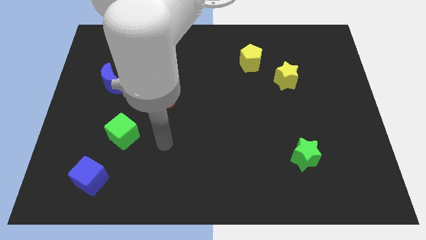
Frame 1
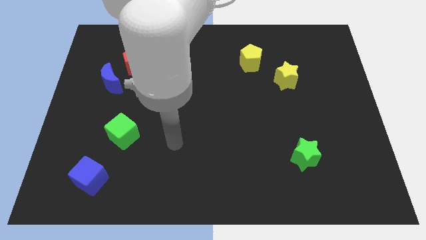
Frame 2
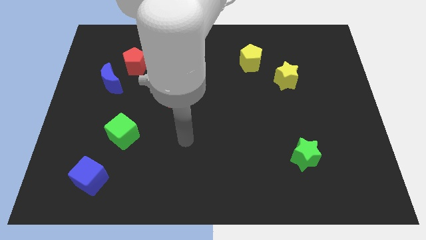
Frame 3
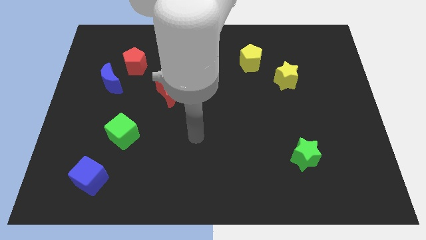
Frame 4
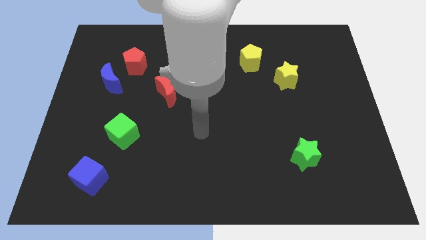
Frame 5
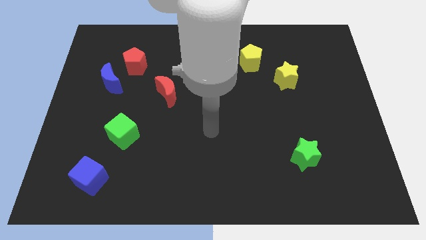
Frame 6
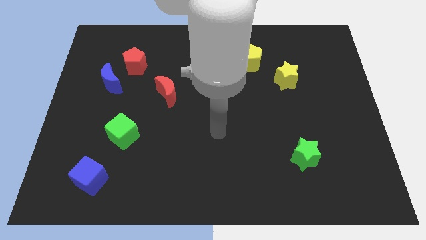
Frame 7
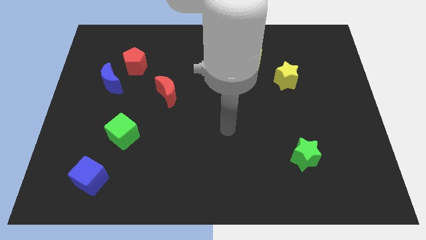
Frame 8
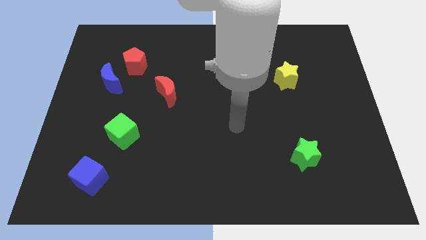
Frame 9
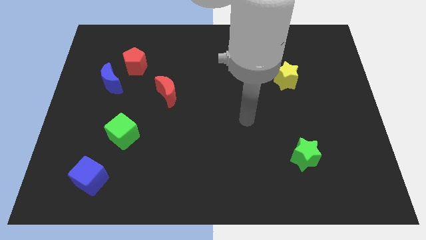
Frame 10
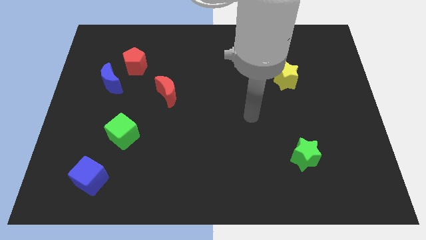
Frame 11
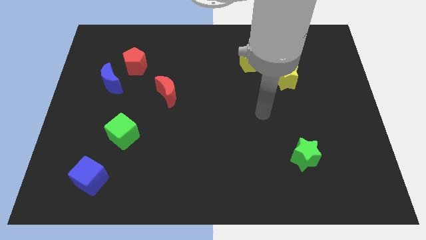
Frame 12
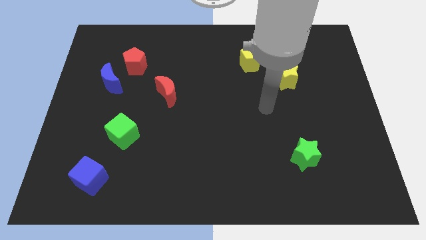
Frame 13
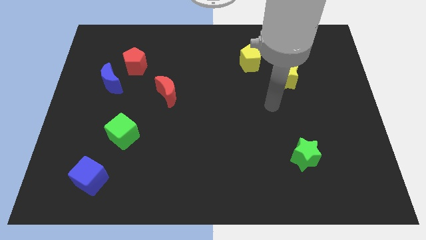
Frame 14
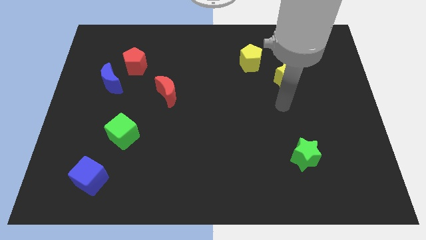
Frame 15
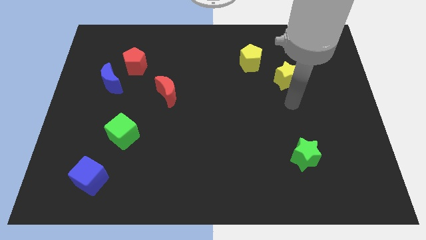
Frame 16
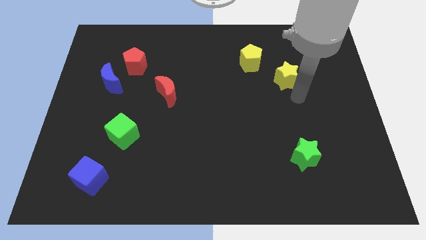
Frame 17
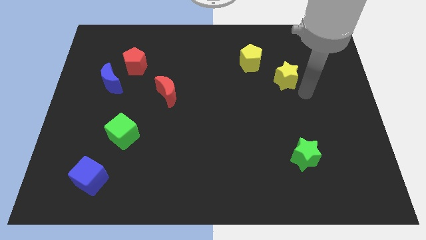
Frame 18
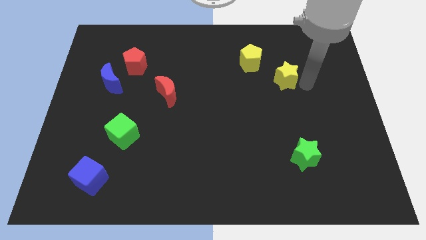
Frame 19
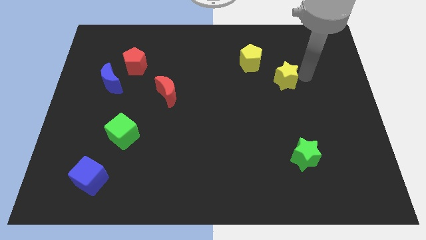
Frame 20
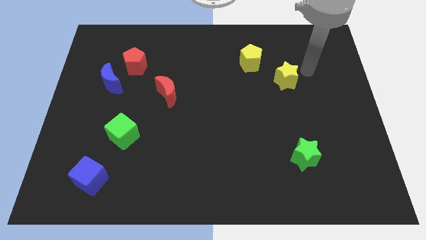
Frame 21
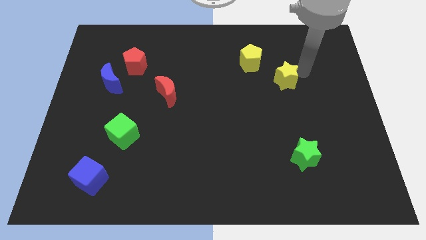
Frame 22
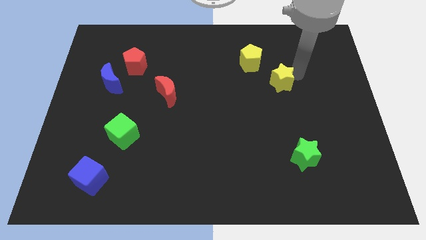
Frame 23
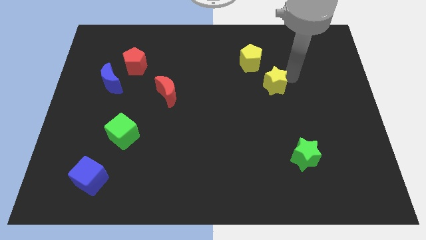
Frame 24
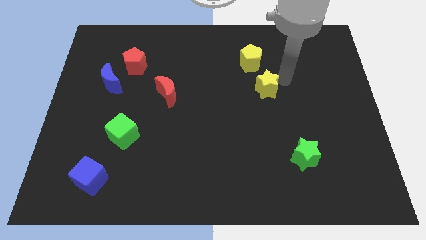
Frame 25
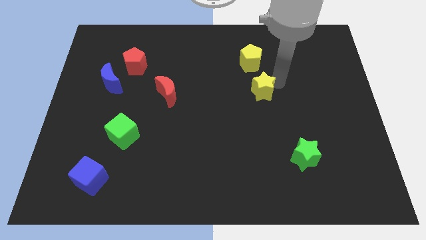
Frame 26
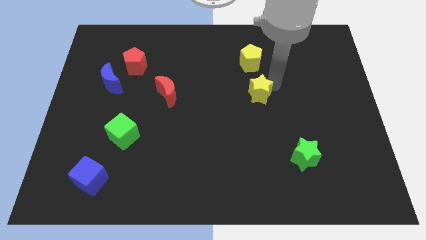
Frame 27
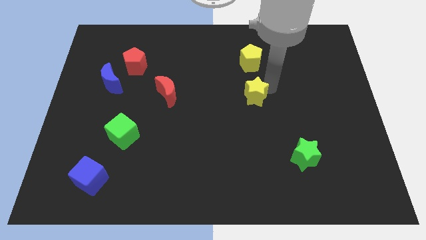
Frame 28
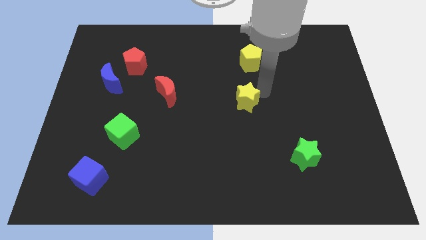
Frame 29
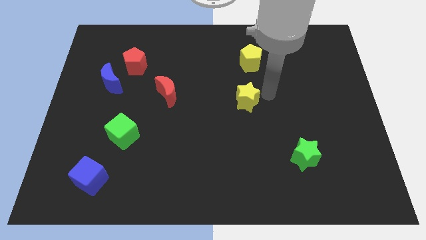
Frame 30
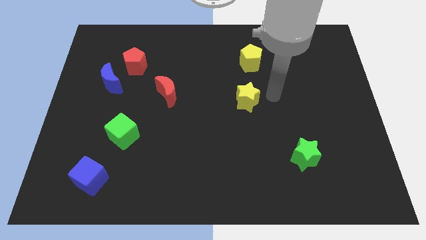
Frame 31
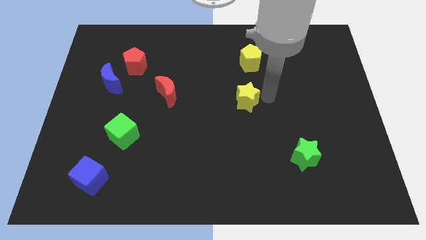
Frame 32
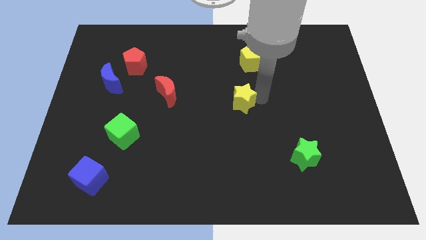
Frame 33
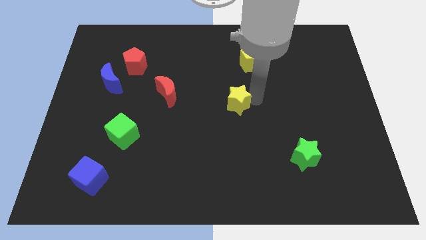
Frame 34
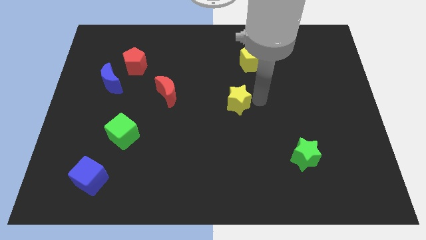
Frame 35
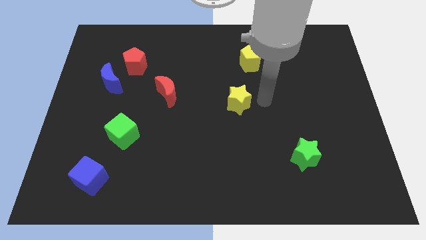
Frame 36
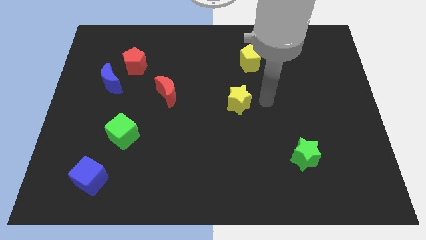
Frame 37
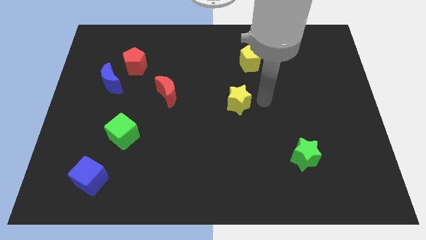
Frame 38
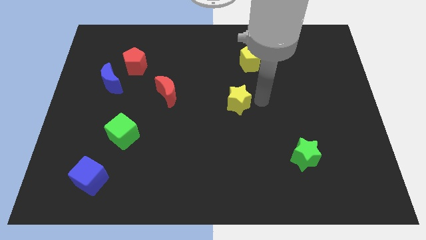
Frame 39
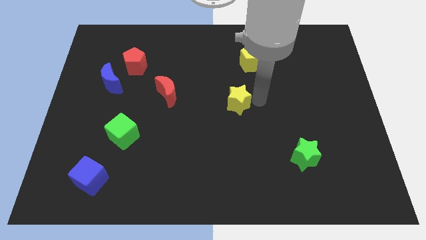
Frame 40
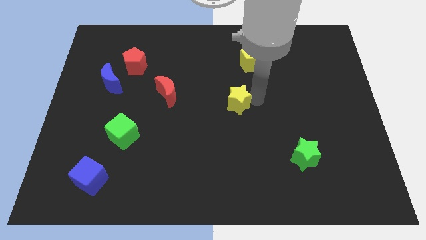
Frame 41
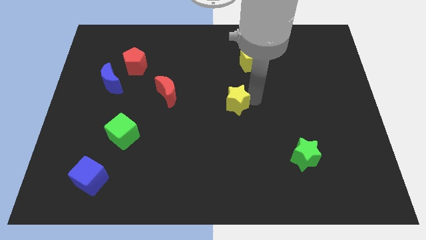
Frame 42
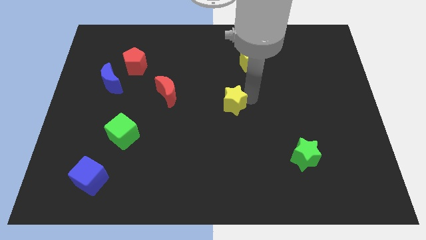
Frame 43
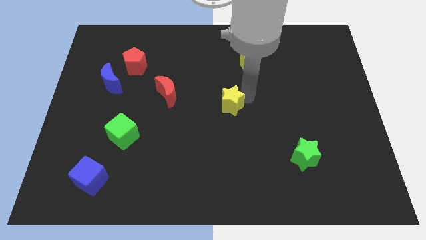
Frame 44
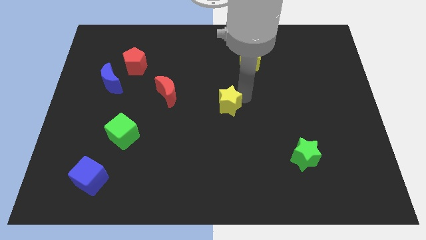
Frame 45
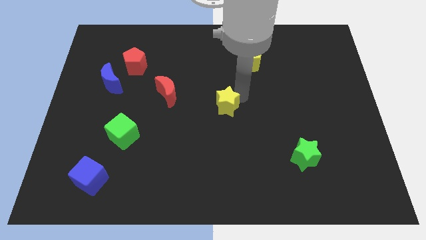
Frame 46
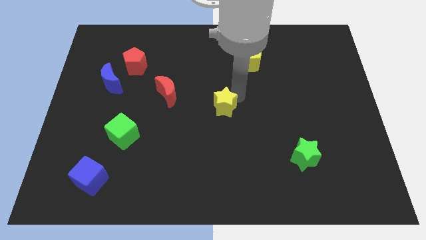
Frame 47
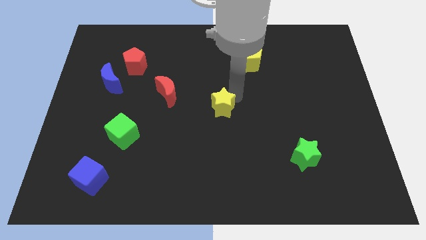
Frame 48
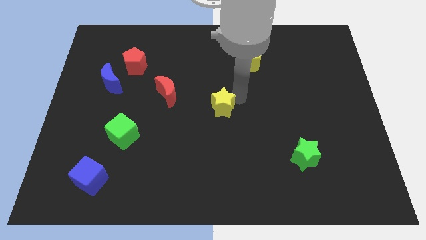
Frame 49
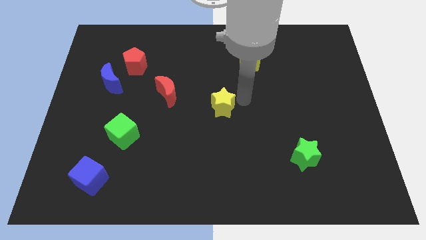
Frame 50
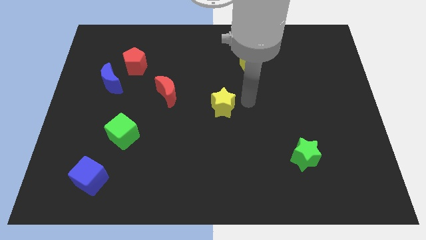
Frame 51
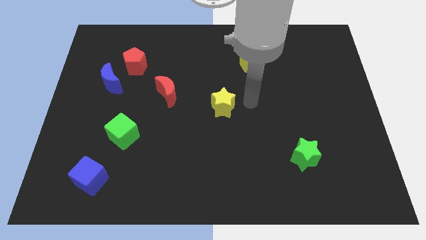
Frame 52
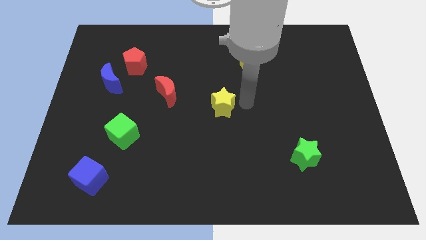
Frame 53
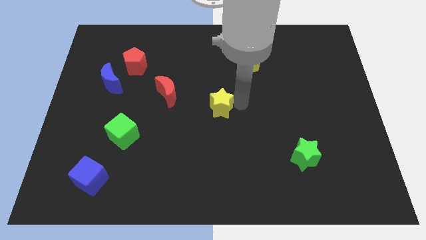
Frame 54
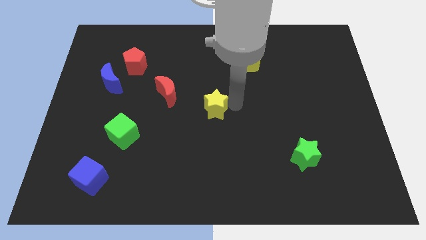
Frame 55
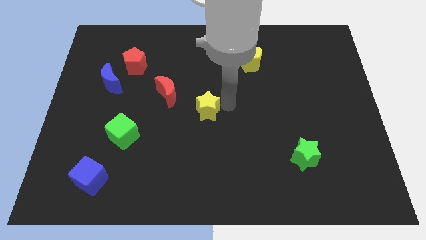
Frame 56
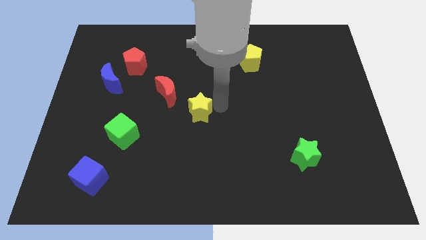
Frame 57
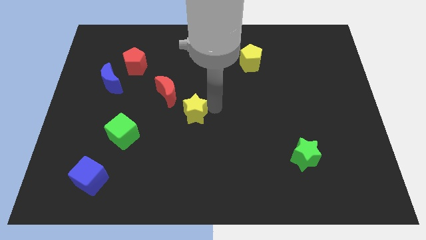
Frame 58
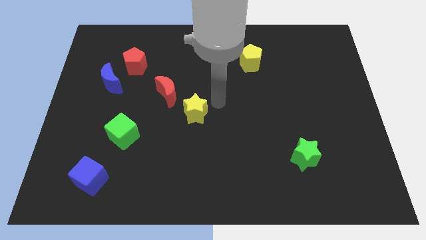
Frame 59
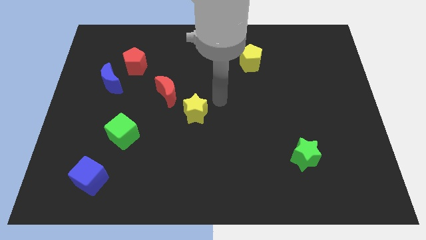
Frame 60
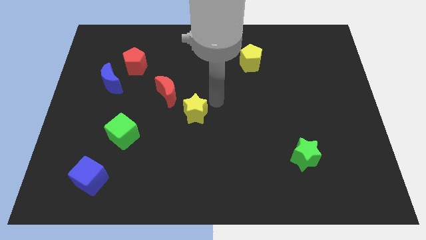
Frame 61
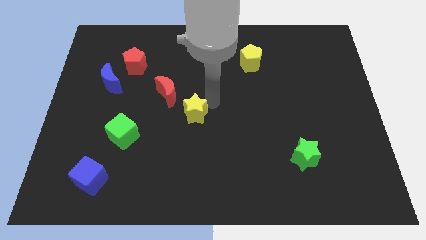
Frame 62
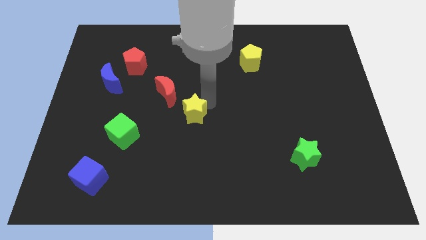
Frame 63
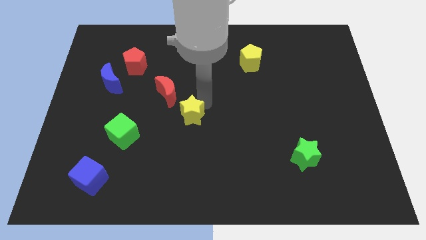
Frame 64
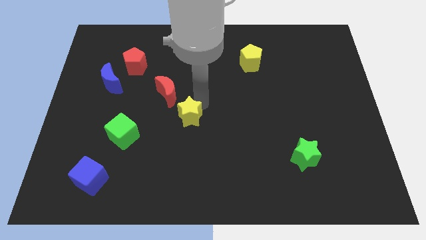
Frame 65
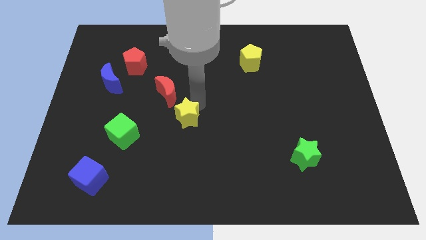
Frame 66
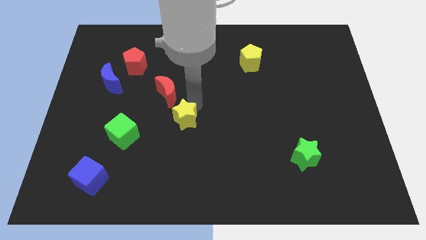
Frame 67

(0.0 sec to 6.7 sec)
push the yellow star below the red moon

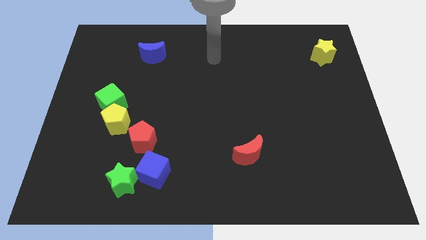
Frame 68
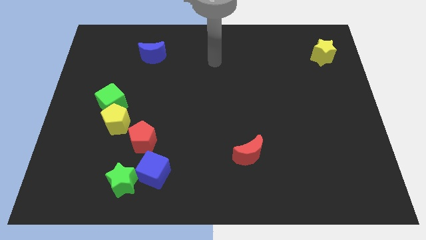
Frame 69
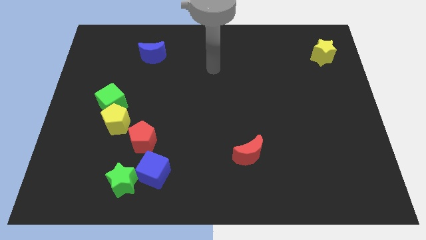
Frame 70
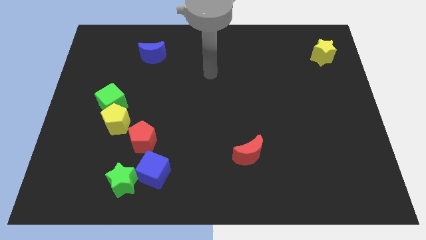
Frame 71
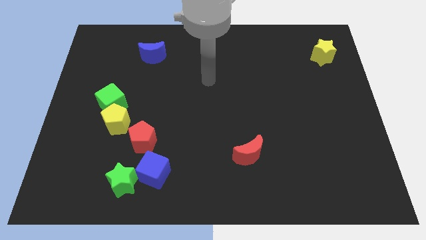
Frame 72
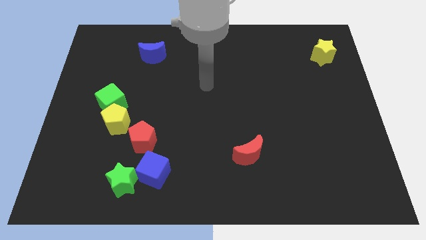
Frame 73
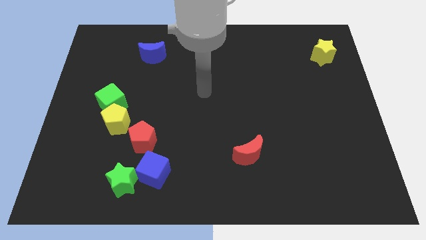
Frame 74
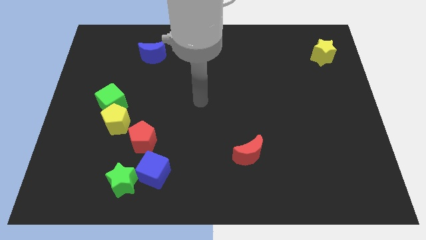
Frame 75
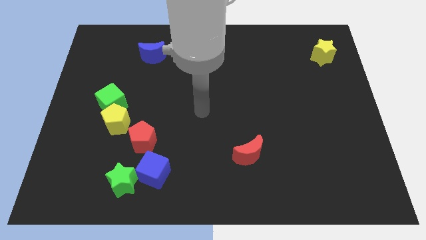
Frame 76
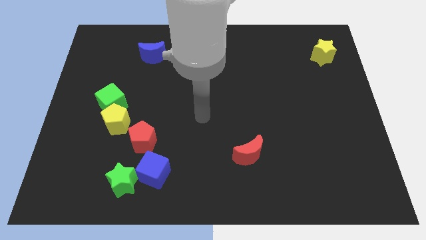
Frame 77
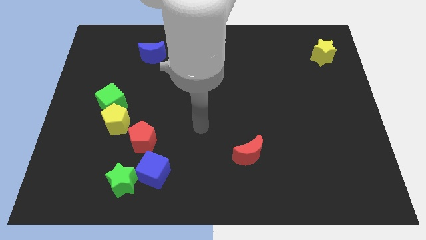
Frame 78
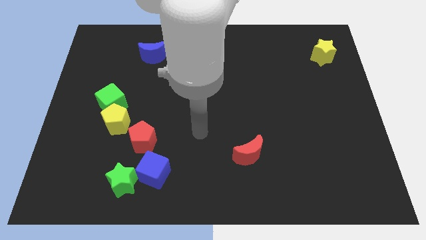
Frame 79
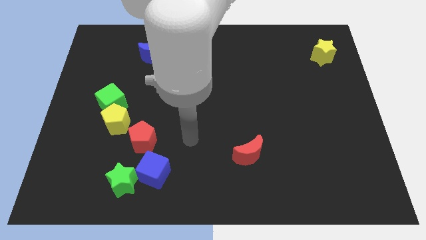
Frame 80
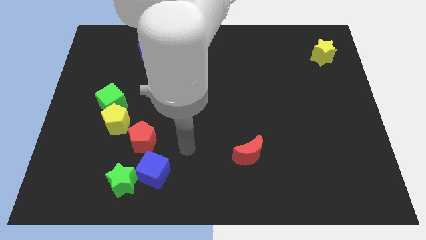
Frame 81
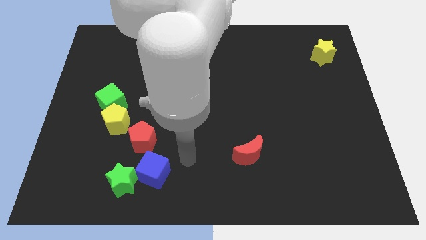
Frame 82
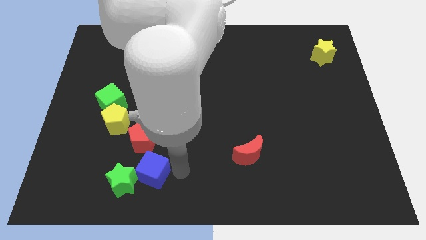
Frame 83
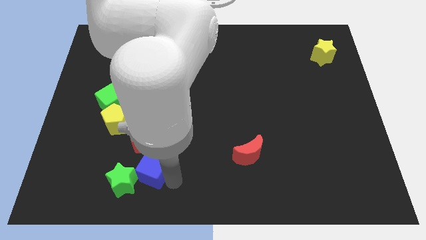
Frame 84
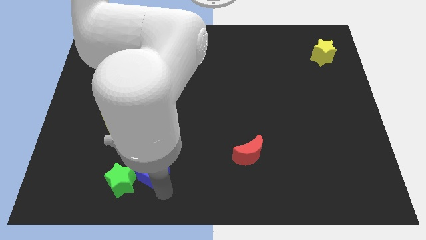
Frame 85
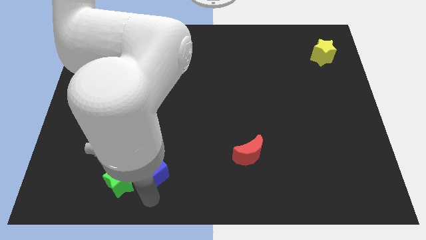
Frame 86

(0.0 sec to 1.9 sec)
slide the green star to the bottom left side of the red pentagon
